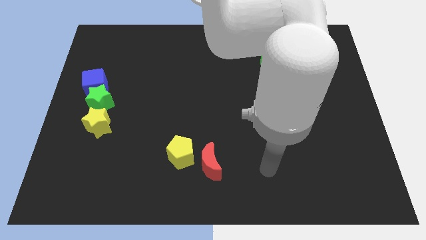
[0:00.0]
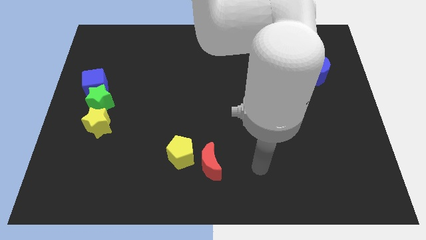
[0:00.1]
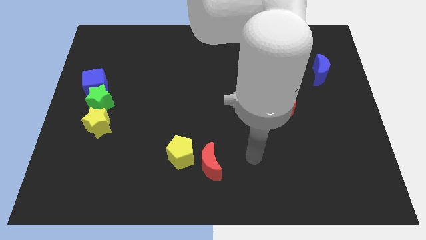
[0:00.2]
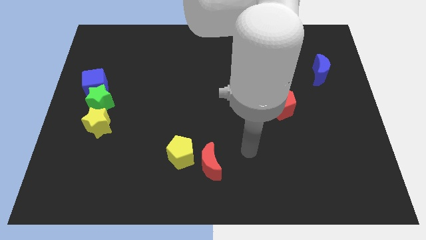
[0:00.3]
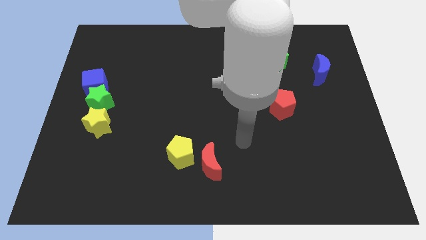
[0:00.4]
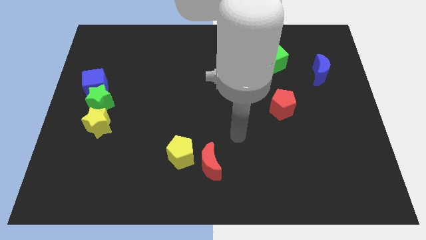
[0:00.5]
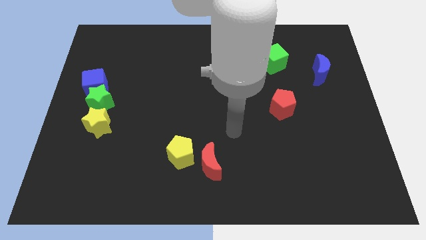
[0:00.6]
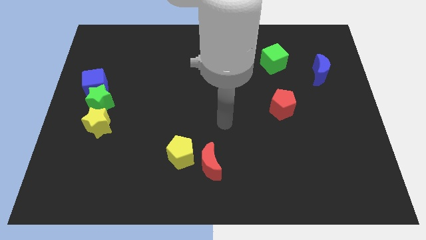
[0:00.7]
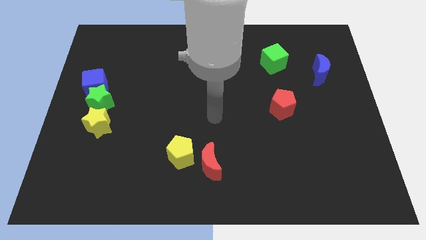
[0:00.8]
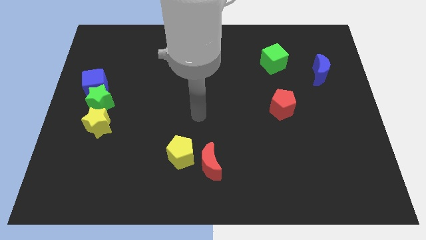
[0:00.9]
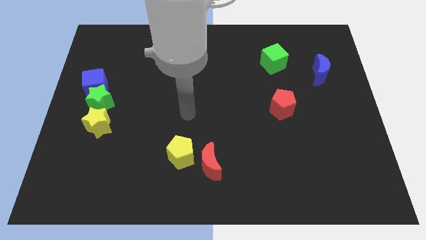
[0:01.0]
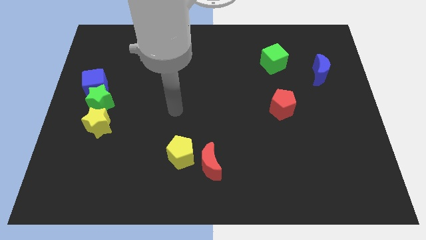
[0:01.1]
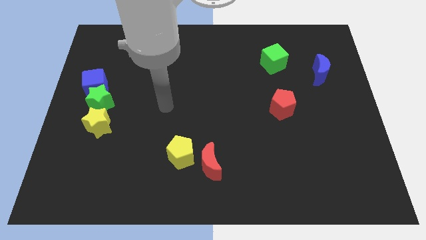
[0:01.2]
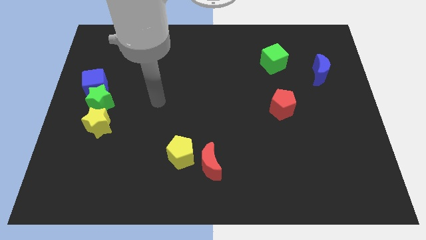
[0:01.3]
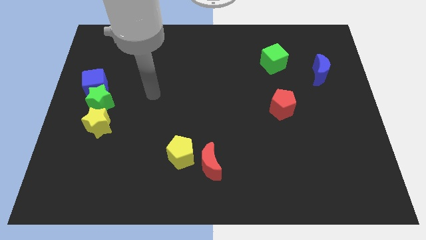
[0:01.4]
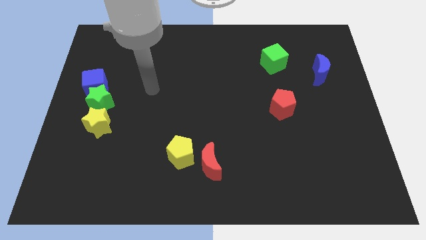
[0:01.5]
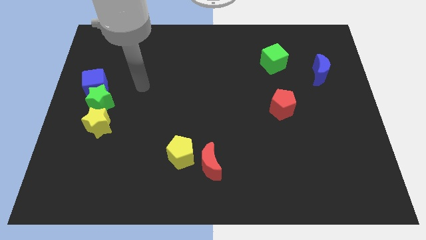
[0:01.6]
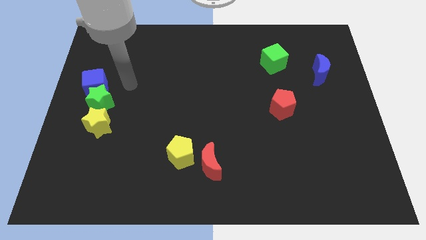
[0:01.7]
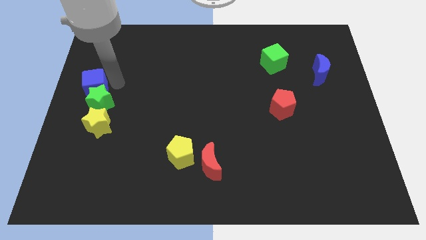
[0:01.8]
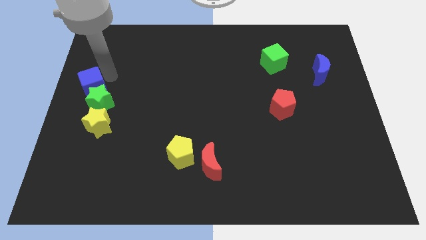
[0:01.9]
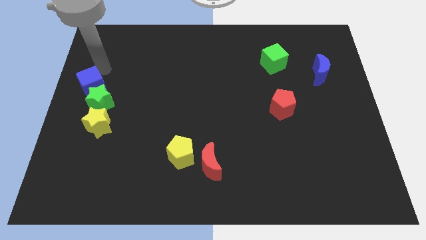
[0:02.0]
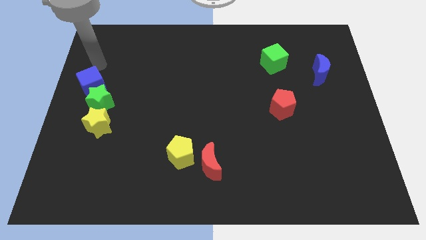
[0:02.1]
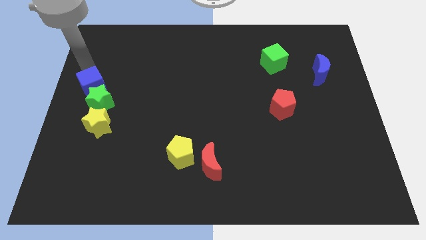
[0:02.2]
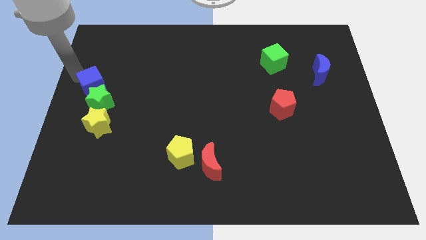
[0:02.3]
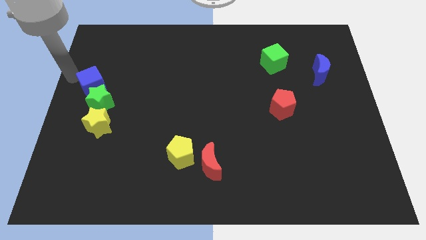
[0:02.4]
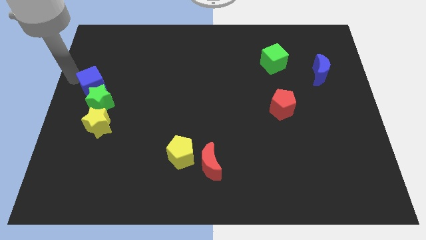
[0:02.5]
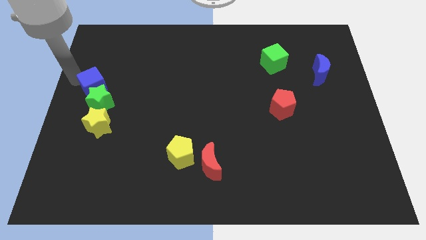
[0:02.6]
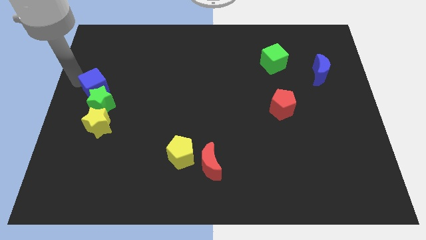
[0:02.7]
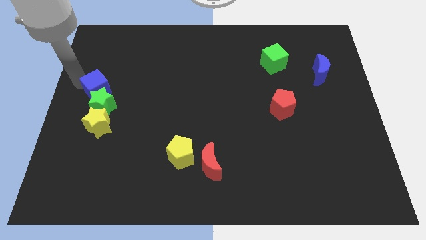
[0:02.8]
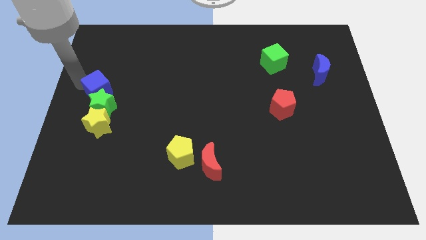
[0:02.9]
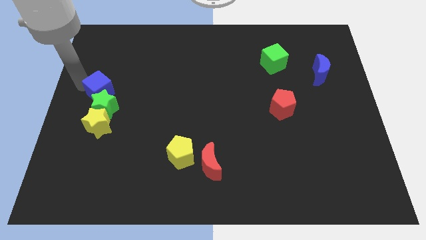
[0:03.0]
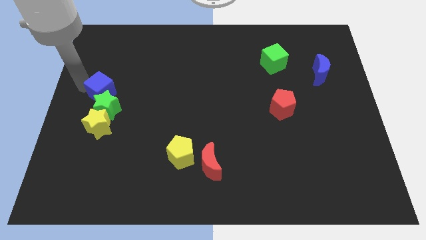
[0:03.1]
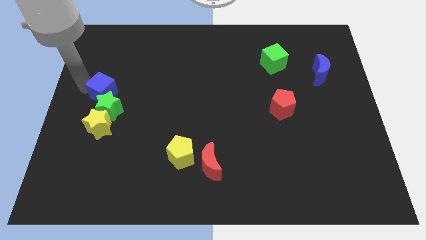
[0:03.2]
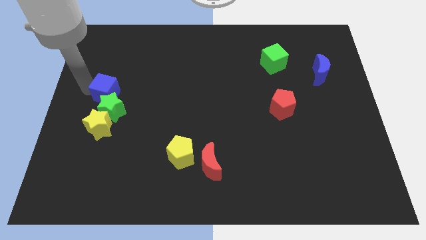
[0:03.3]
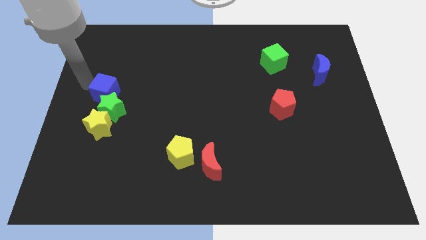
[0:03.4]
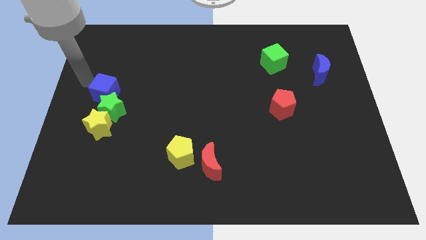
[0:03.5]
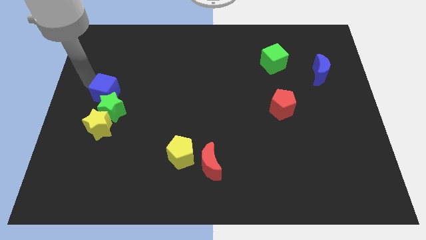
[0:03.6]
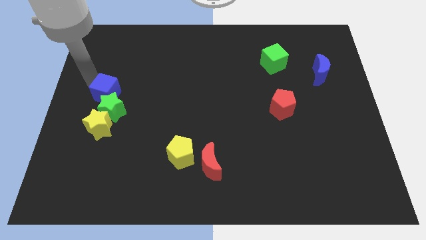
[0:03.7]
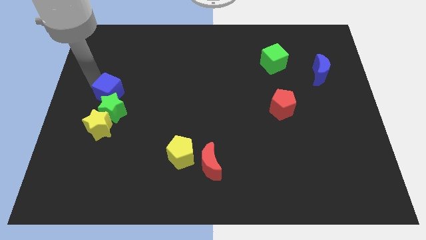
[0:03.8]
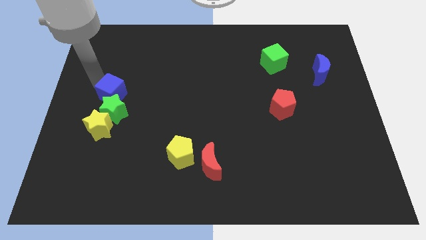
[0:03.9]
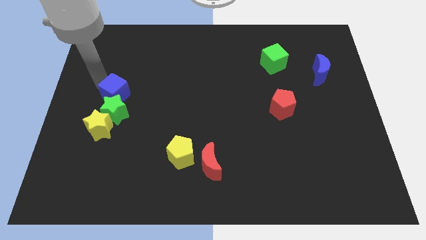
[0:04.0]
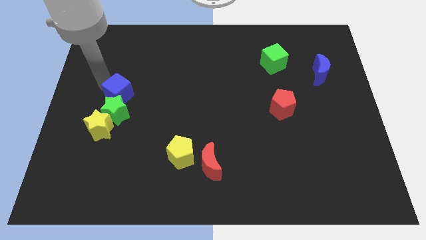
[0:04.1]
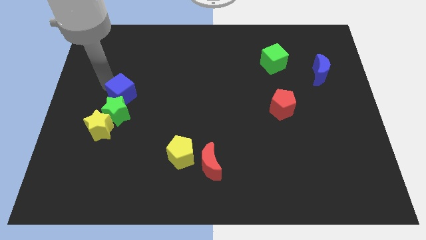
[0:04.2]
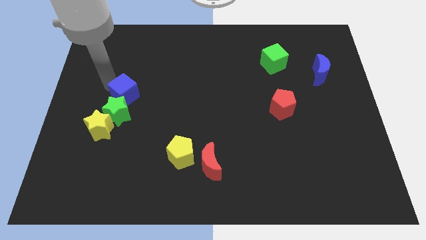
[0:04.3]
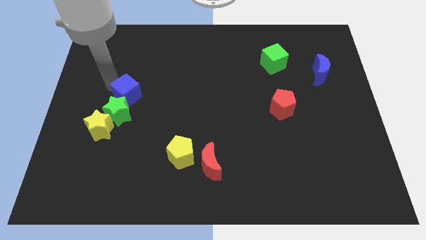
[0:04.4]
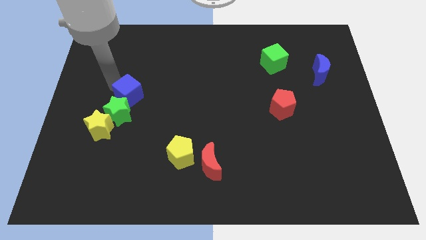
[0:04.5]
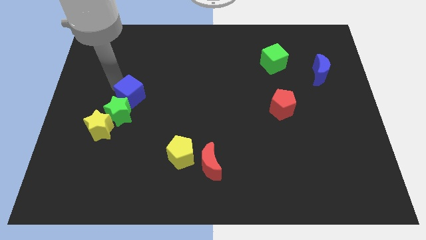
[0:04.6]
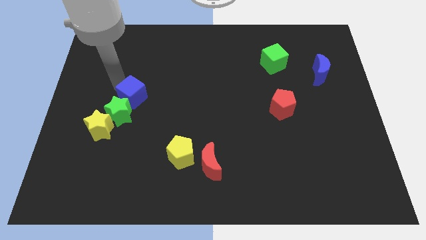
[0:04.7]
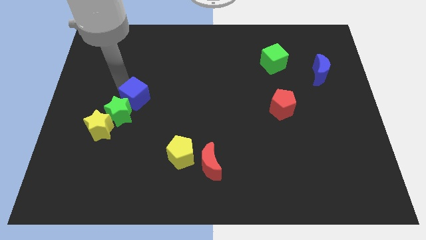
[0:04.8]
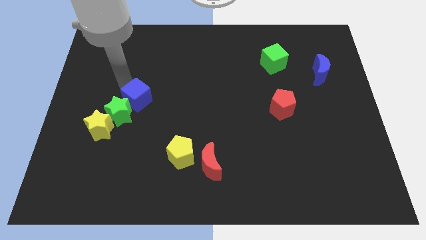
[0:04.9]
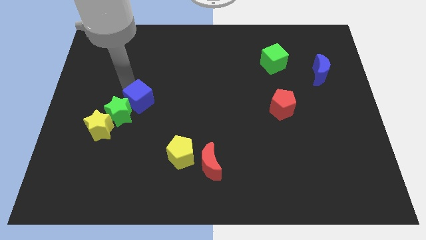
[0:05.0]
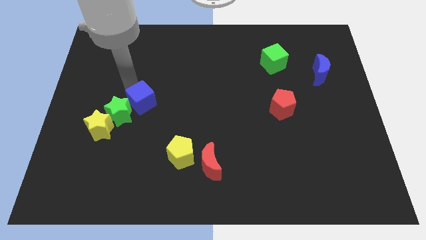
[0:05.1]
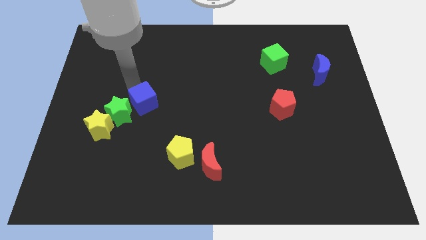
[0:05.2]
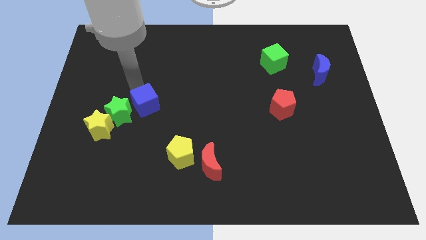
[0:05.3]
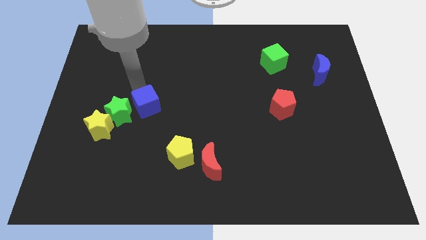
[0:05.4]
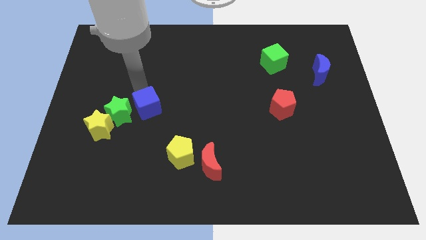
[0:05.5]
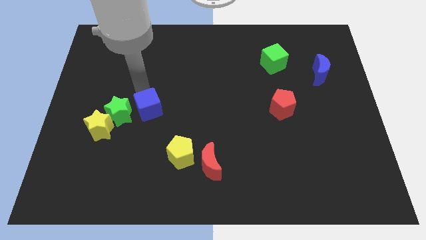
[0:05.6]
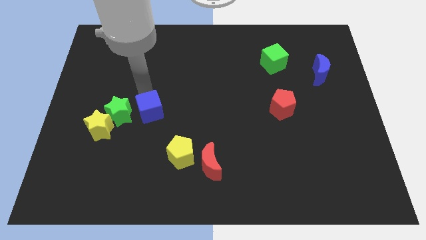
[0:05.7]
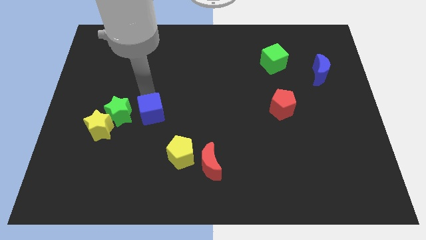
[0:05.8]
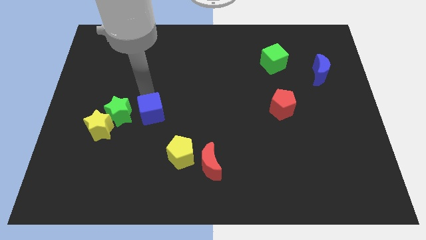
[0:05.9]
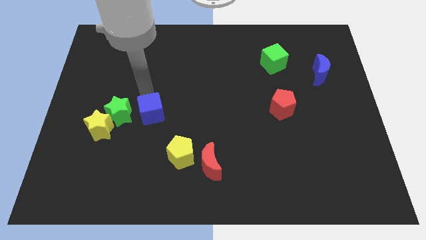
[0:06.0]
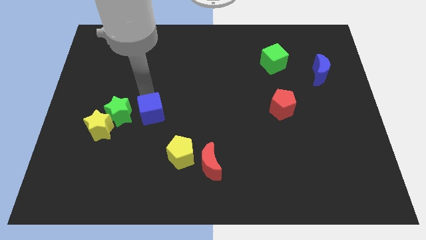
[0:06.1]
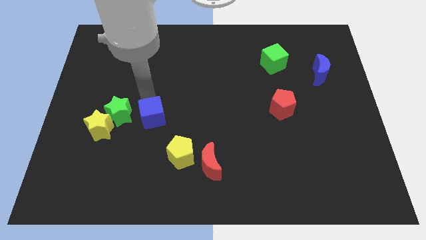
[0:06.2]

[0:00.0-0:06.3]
slide the blue cube to the top left side of the yellow pentagon
